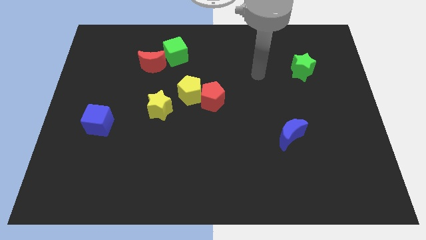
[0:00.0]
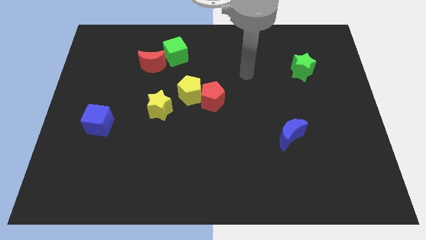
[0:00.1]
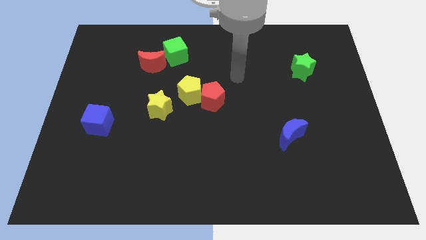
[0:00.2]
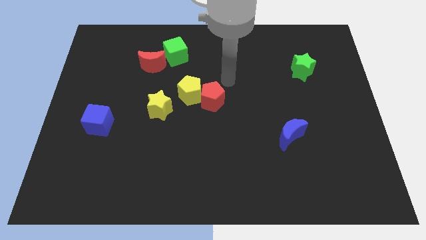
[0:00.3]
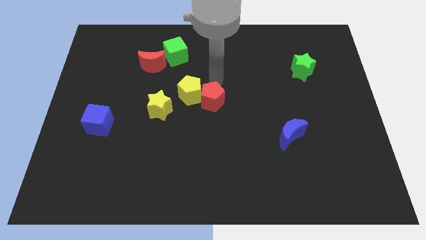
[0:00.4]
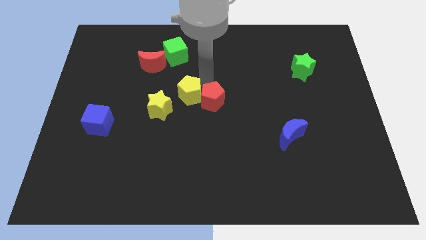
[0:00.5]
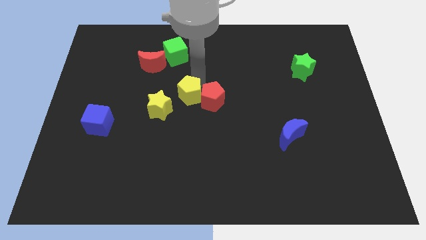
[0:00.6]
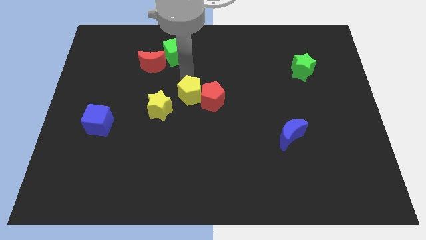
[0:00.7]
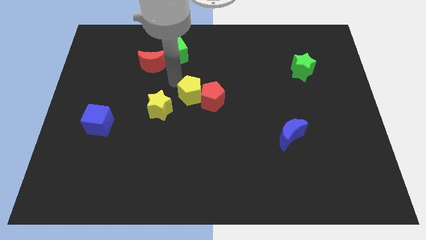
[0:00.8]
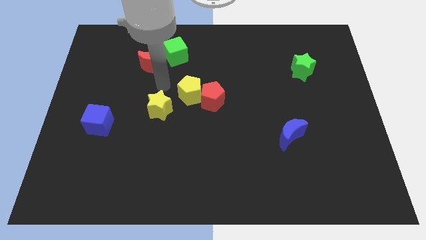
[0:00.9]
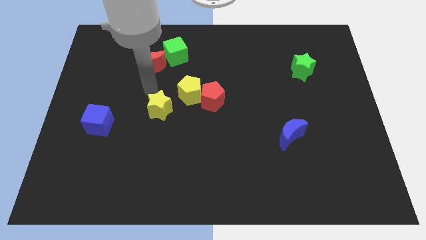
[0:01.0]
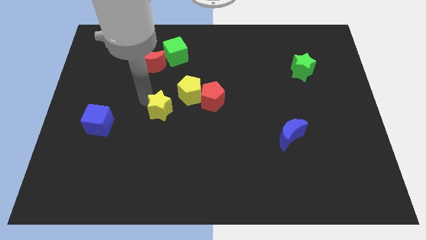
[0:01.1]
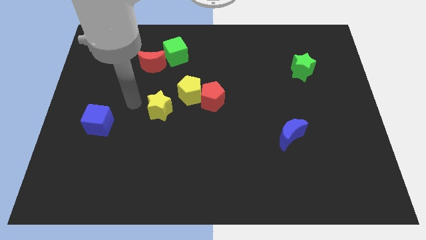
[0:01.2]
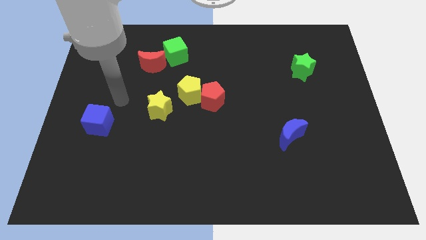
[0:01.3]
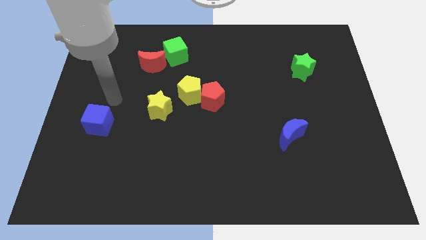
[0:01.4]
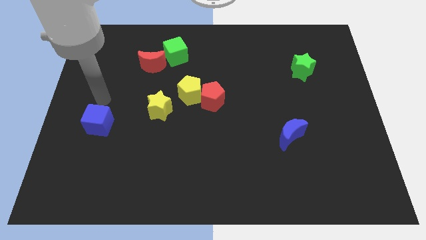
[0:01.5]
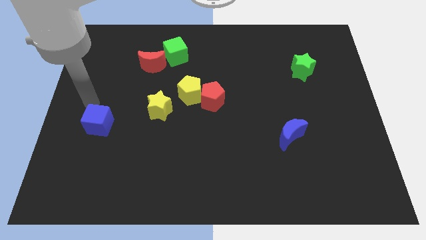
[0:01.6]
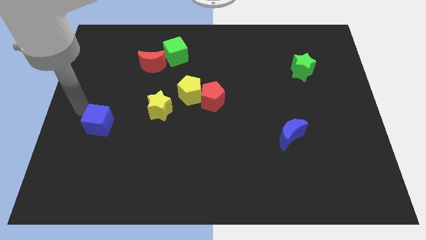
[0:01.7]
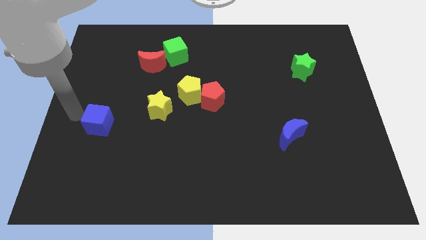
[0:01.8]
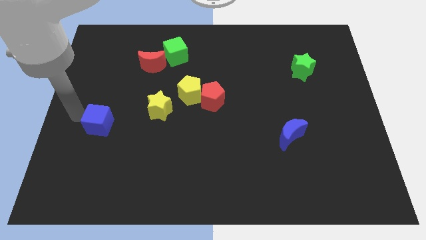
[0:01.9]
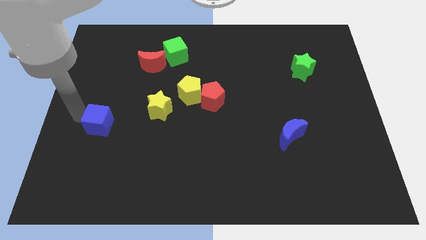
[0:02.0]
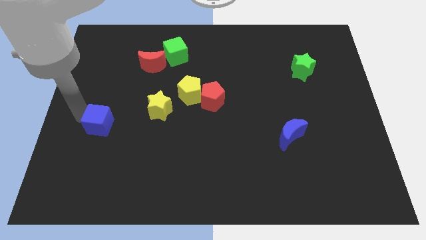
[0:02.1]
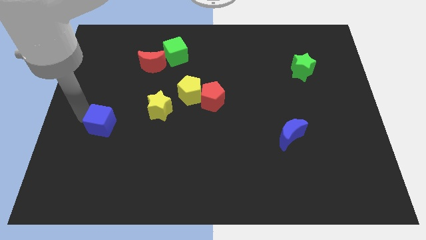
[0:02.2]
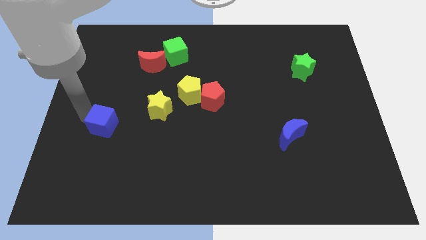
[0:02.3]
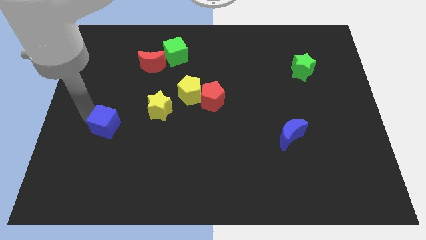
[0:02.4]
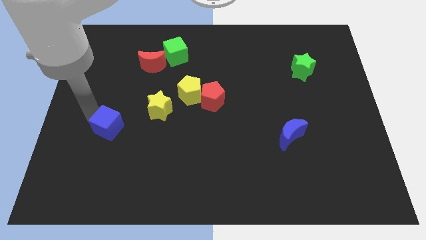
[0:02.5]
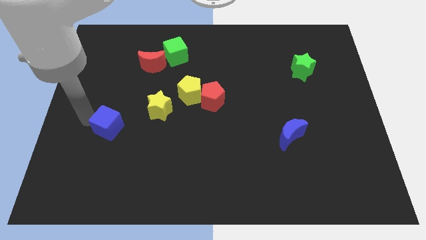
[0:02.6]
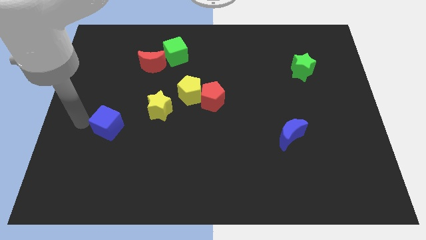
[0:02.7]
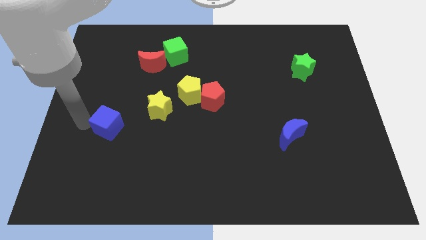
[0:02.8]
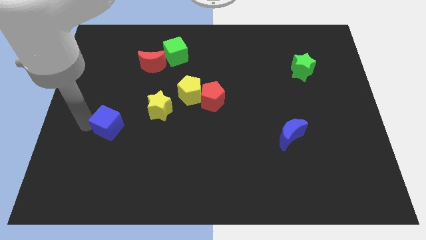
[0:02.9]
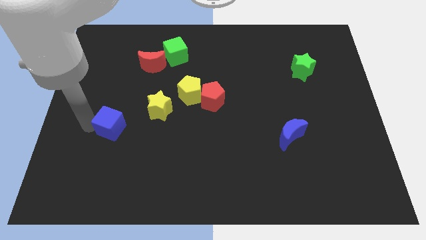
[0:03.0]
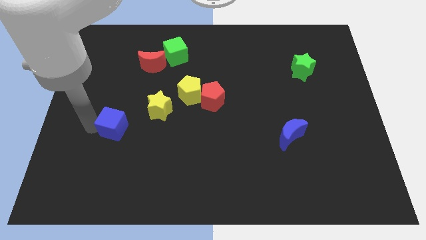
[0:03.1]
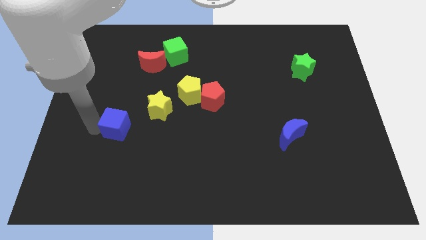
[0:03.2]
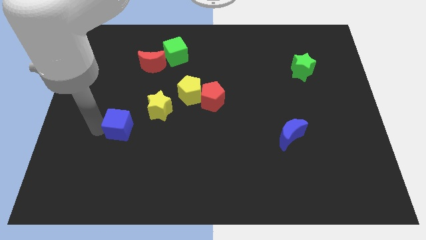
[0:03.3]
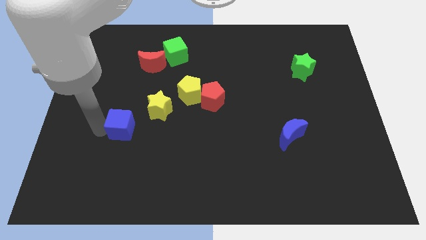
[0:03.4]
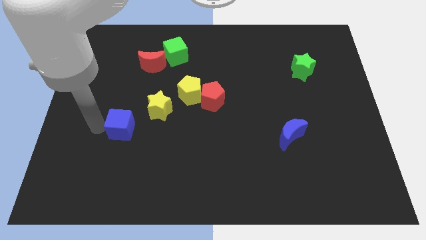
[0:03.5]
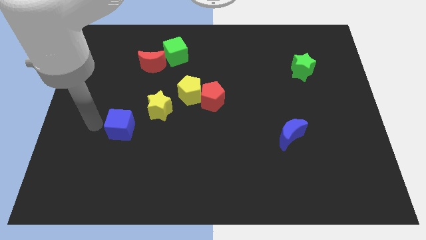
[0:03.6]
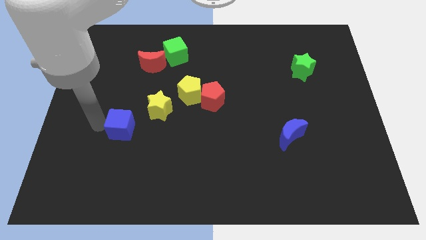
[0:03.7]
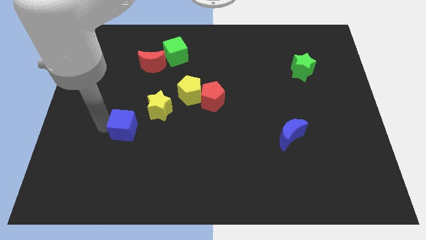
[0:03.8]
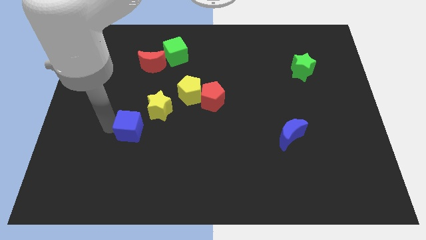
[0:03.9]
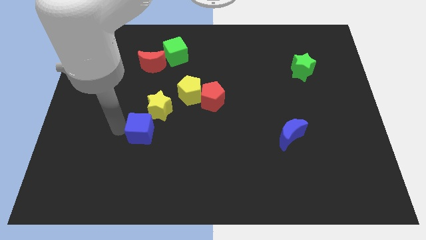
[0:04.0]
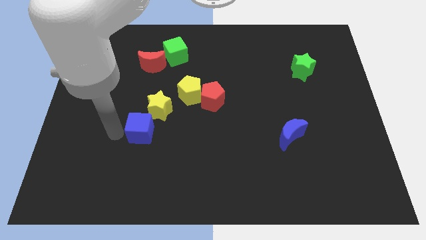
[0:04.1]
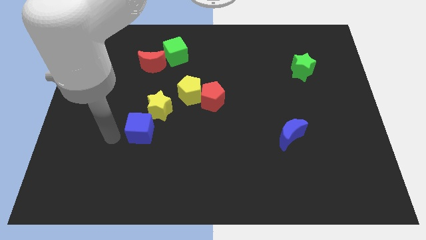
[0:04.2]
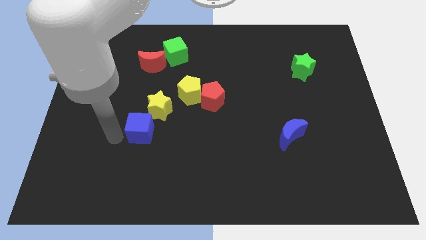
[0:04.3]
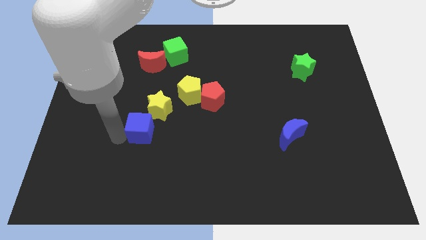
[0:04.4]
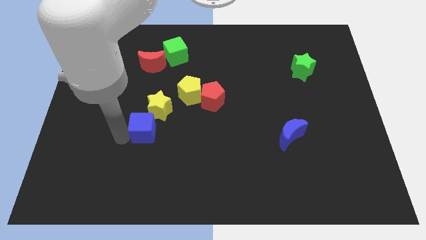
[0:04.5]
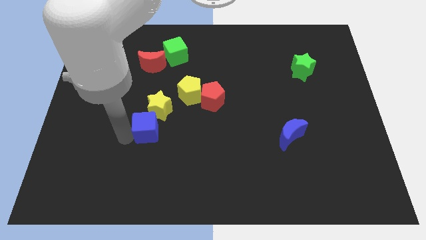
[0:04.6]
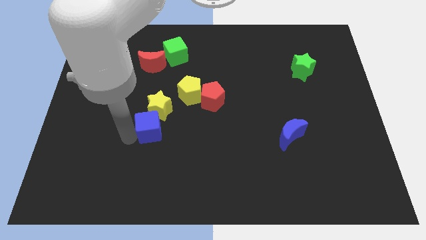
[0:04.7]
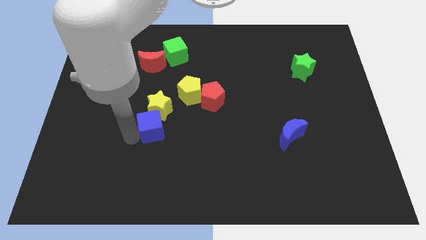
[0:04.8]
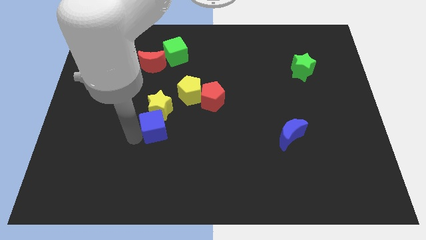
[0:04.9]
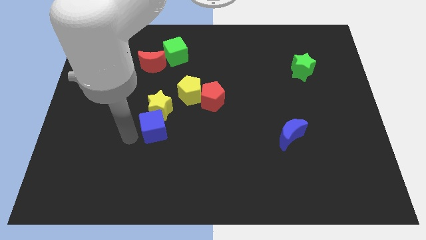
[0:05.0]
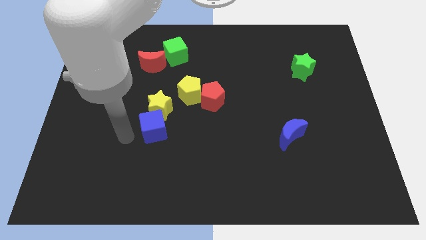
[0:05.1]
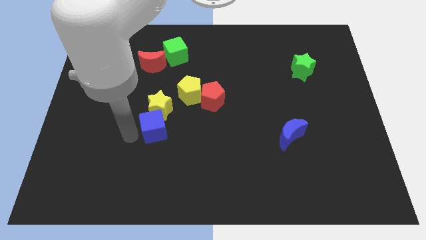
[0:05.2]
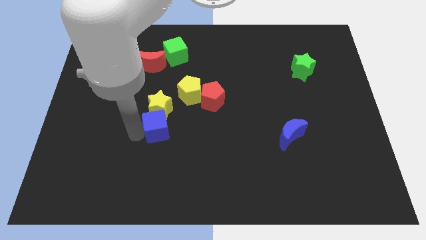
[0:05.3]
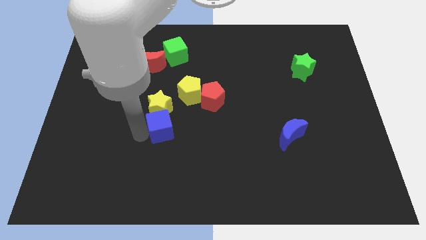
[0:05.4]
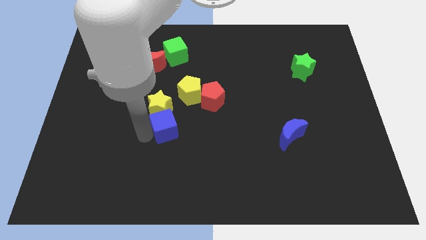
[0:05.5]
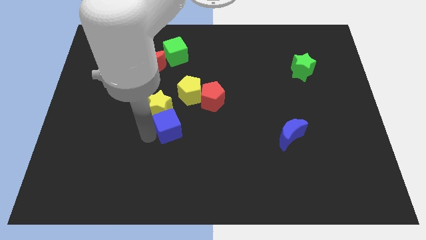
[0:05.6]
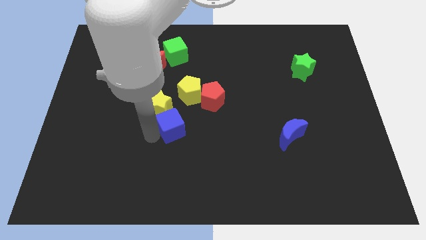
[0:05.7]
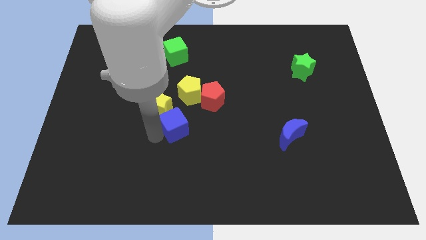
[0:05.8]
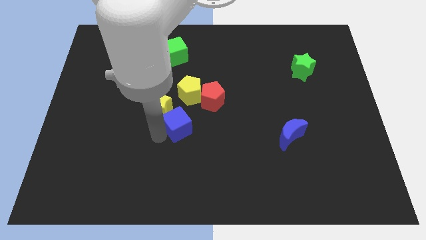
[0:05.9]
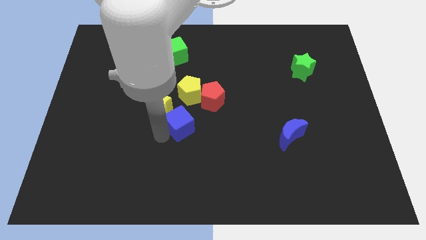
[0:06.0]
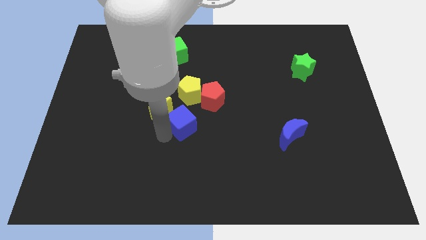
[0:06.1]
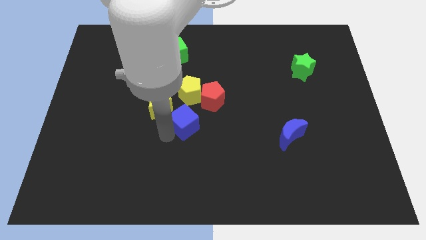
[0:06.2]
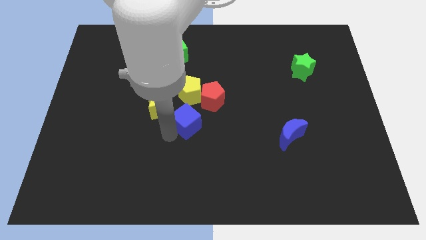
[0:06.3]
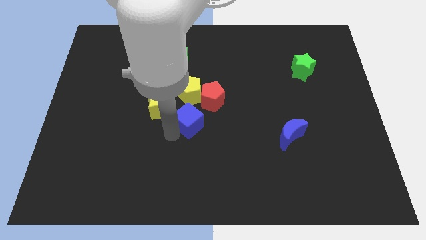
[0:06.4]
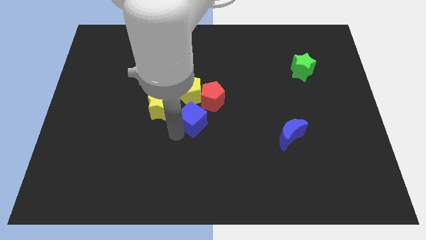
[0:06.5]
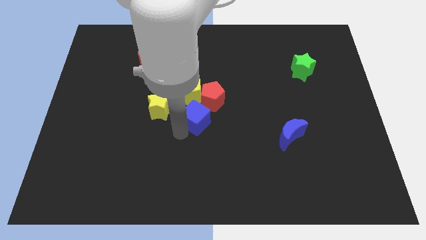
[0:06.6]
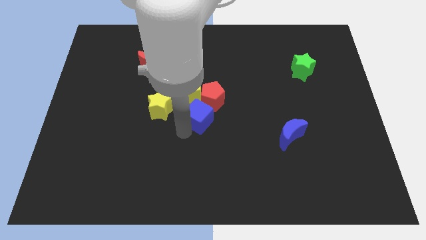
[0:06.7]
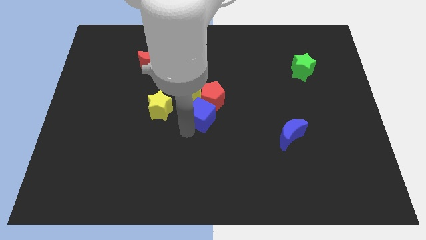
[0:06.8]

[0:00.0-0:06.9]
move the blue cube to the red pentagon
